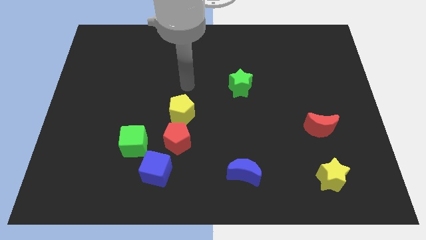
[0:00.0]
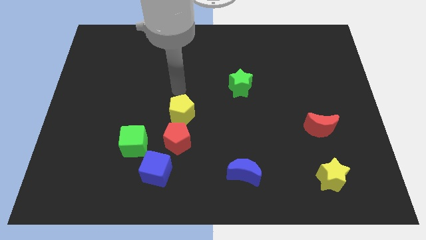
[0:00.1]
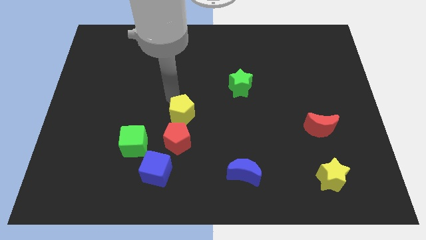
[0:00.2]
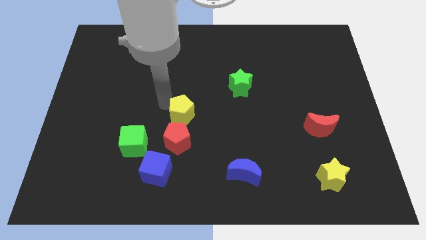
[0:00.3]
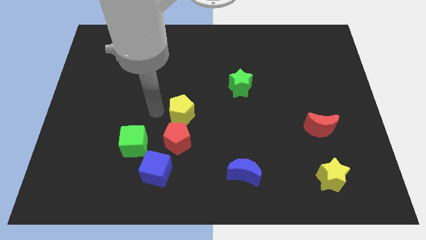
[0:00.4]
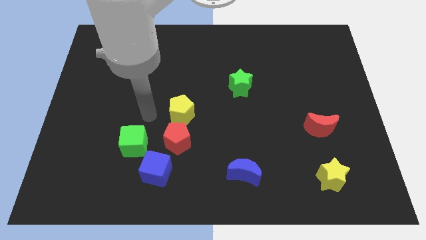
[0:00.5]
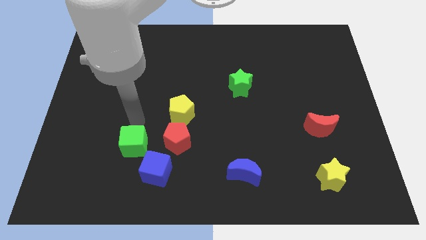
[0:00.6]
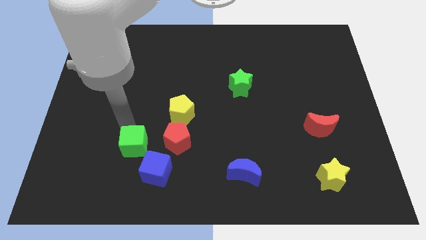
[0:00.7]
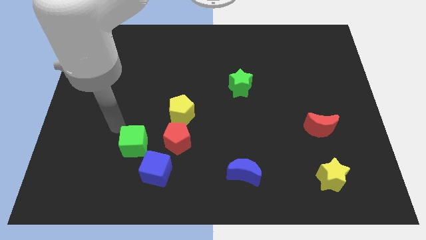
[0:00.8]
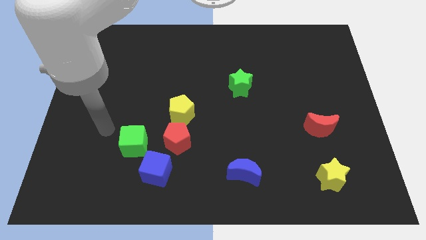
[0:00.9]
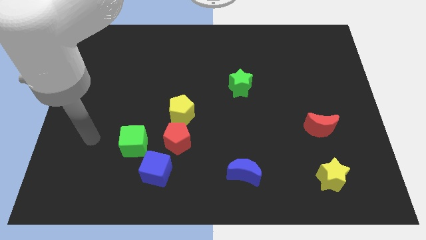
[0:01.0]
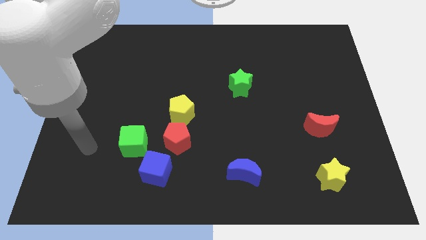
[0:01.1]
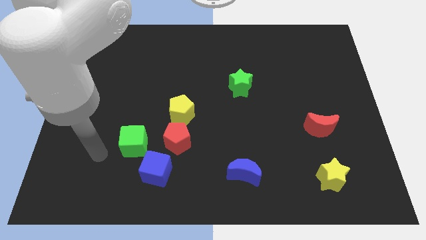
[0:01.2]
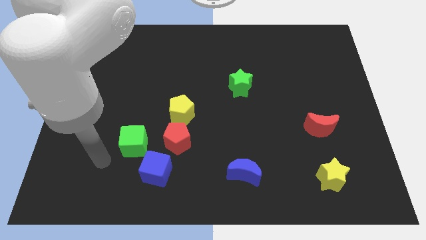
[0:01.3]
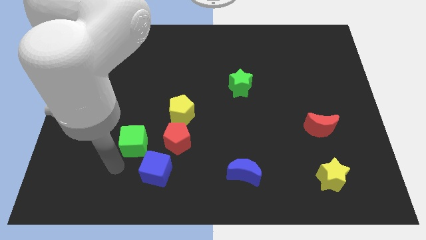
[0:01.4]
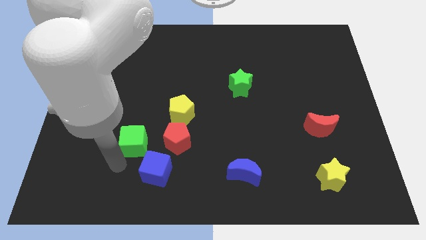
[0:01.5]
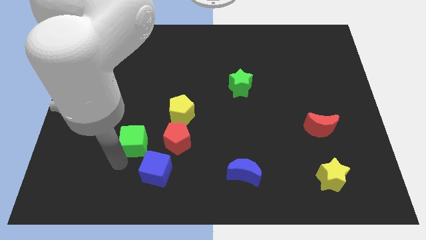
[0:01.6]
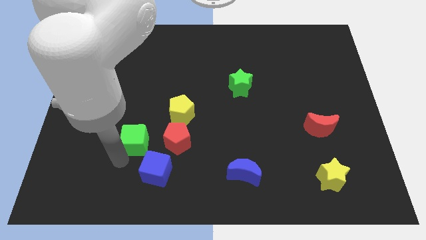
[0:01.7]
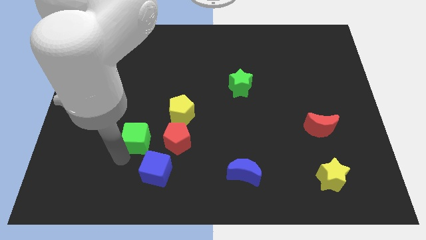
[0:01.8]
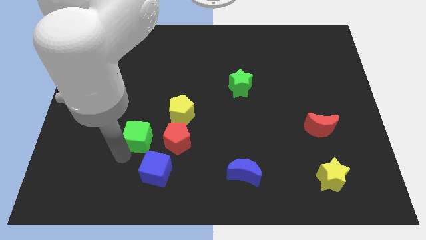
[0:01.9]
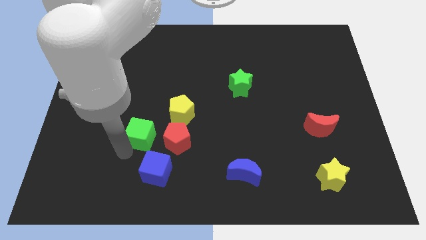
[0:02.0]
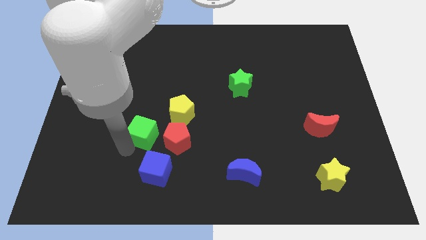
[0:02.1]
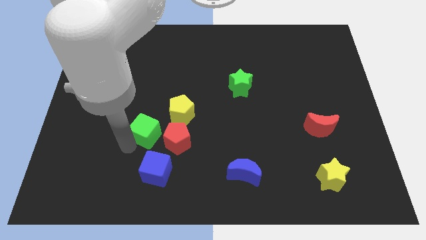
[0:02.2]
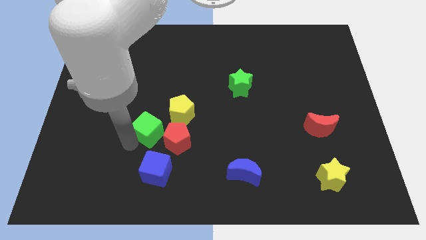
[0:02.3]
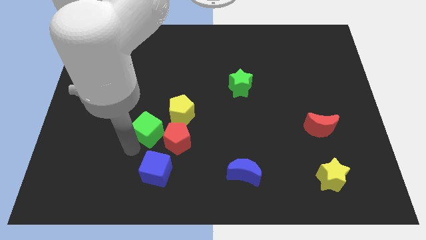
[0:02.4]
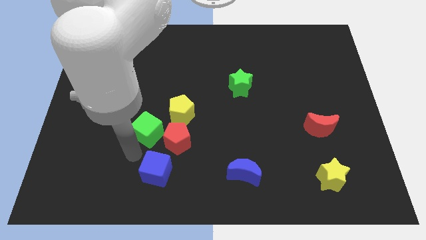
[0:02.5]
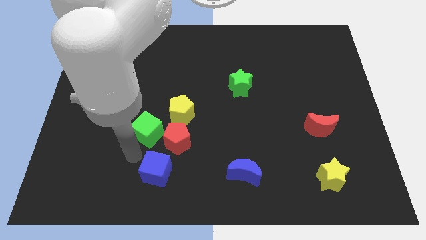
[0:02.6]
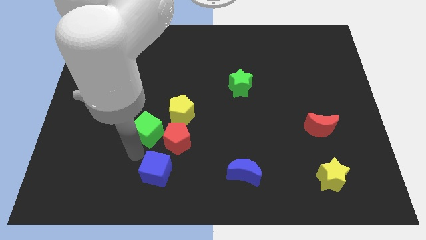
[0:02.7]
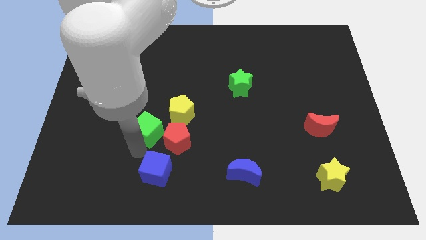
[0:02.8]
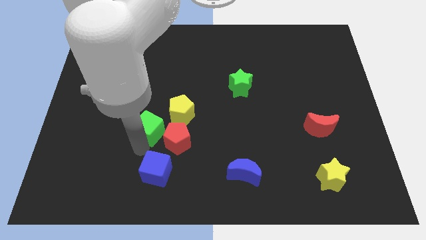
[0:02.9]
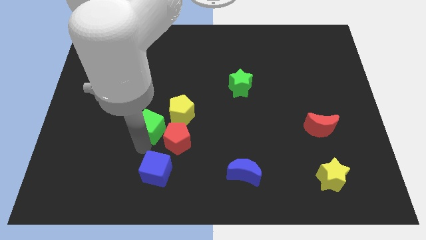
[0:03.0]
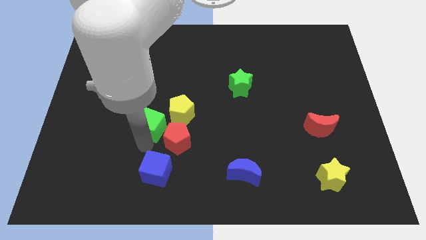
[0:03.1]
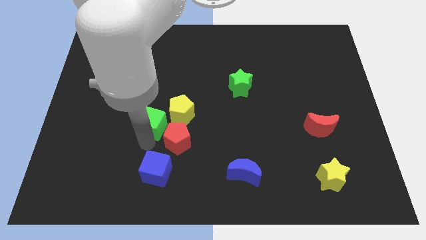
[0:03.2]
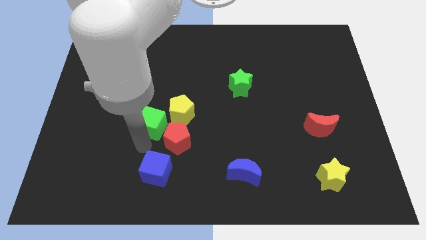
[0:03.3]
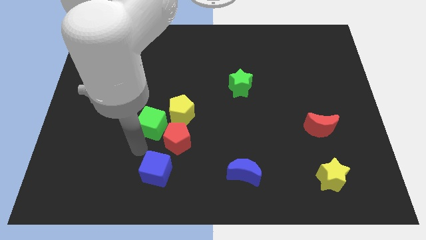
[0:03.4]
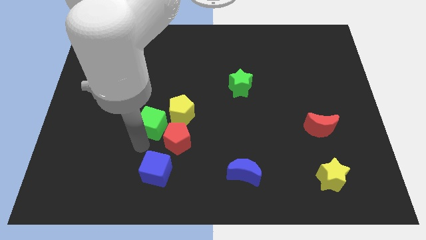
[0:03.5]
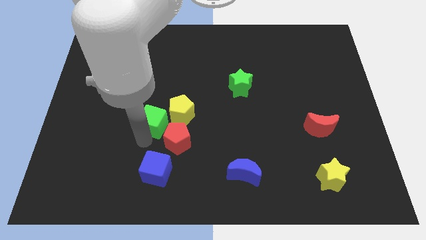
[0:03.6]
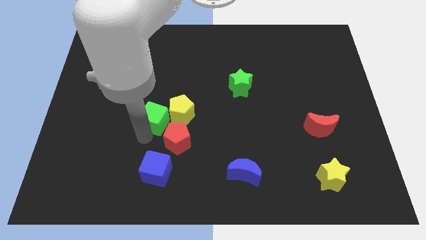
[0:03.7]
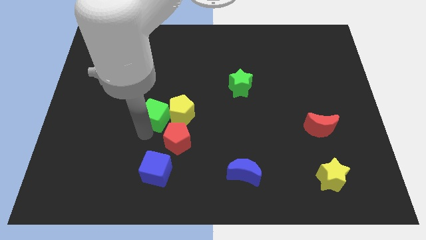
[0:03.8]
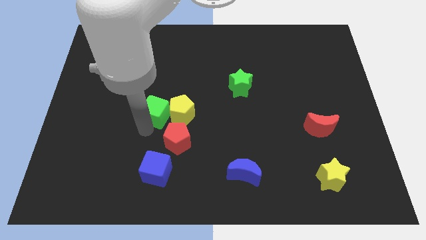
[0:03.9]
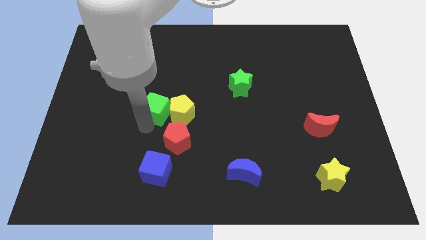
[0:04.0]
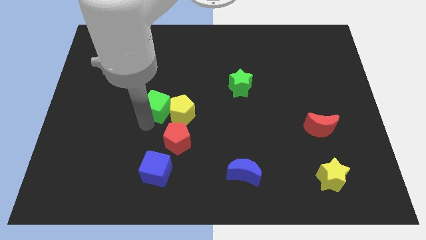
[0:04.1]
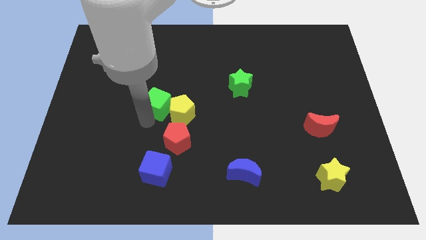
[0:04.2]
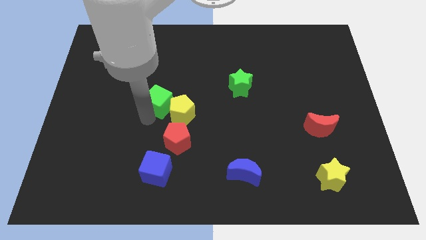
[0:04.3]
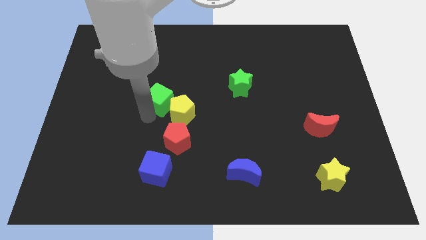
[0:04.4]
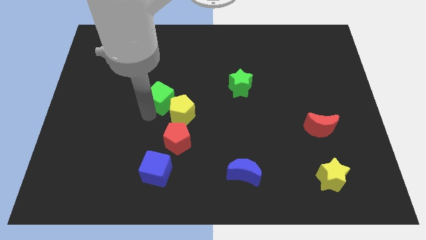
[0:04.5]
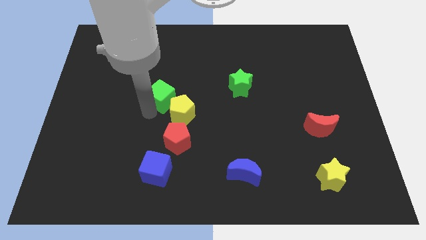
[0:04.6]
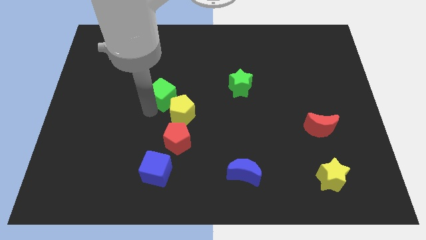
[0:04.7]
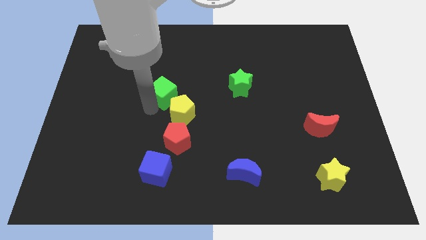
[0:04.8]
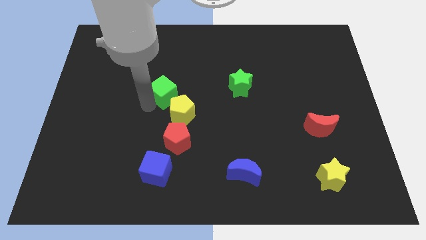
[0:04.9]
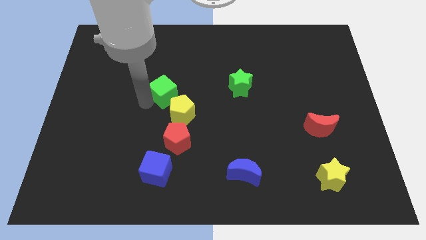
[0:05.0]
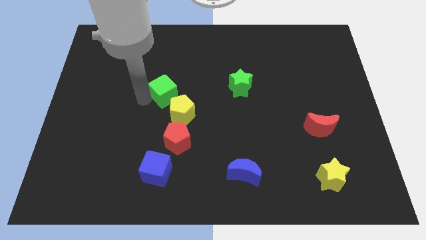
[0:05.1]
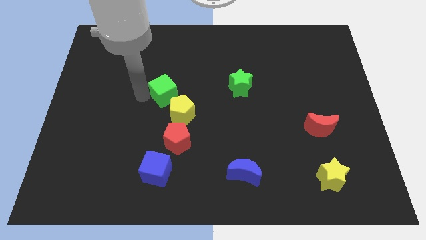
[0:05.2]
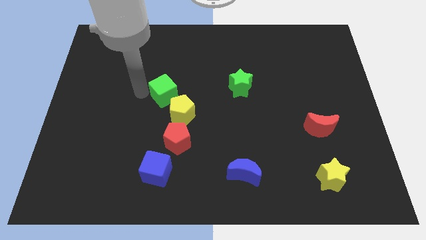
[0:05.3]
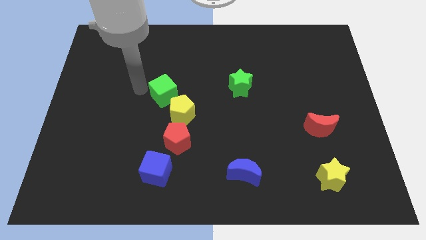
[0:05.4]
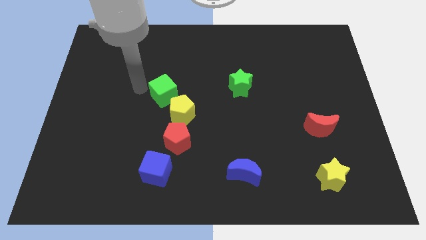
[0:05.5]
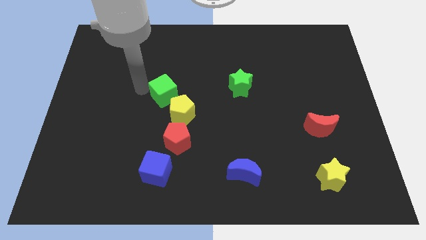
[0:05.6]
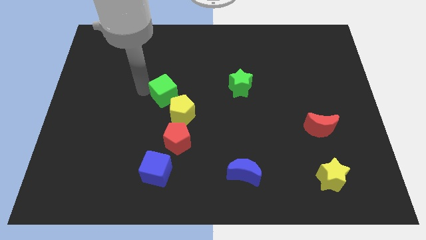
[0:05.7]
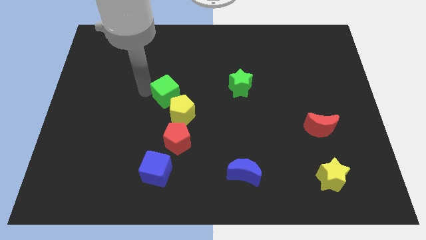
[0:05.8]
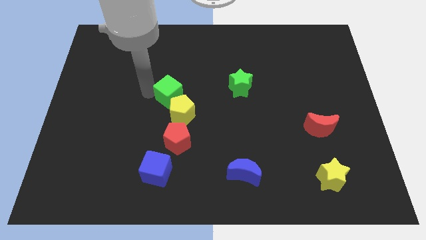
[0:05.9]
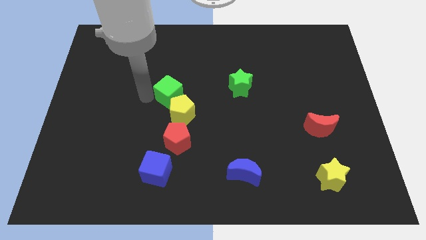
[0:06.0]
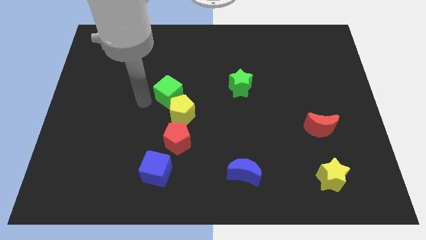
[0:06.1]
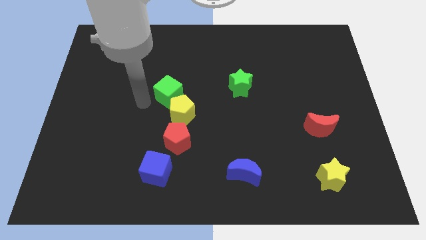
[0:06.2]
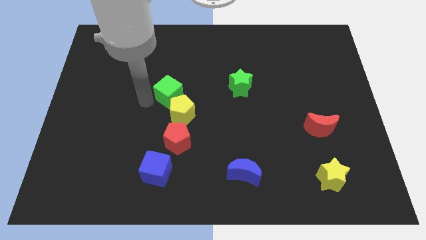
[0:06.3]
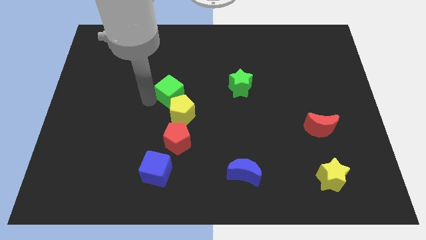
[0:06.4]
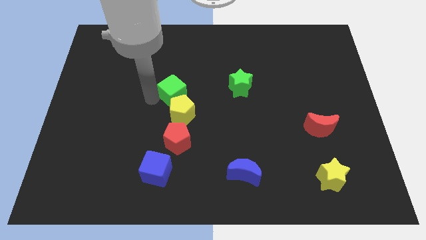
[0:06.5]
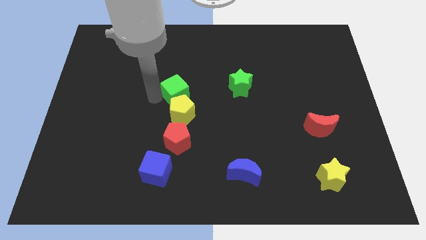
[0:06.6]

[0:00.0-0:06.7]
move the green cube to the left of the green star

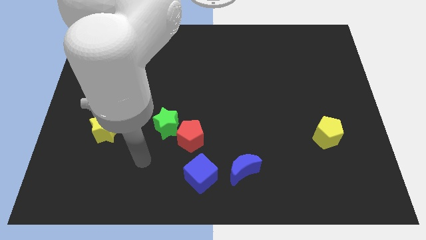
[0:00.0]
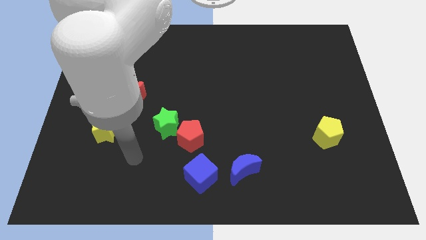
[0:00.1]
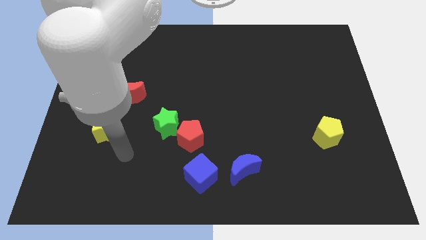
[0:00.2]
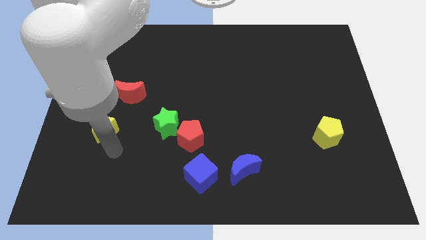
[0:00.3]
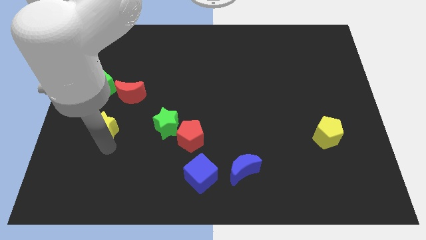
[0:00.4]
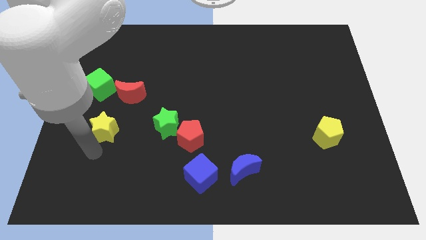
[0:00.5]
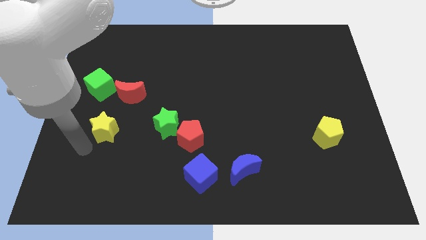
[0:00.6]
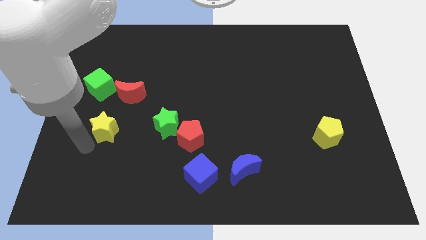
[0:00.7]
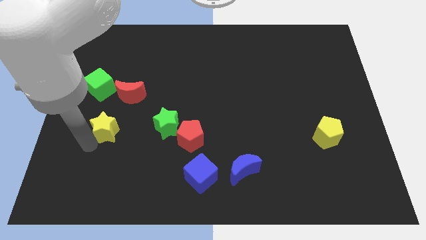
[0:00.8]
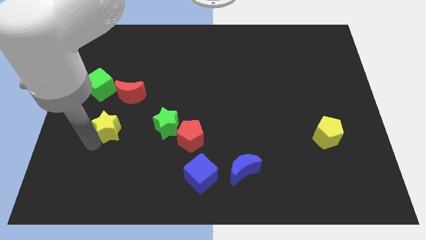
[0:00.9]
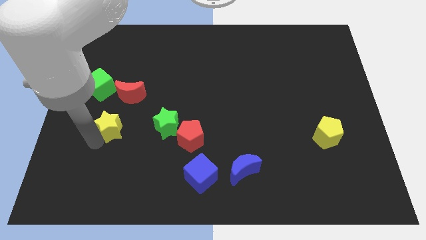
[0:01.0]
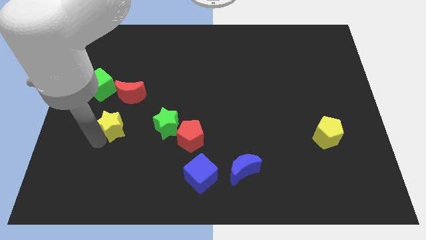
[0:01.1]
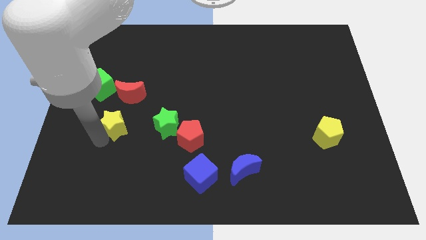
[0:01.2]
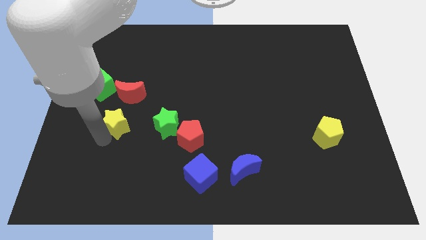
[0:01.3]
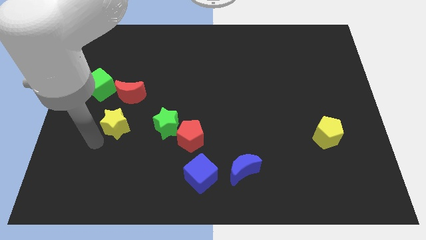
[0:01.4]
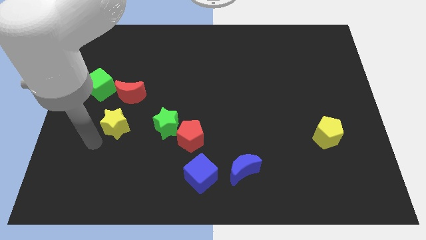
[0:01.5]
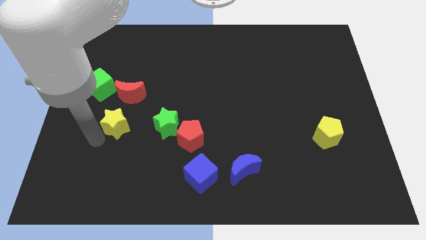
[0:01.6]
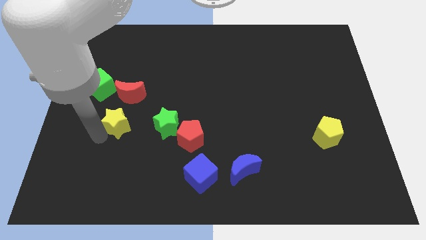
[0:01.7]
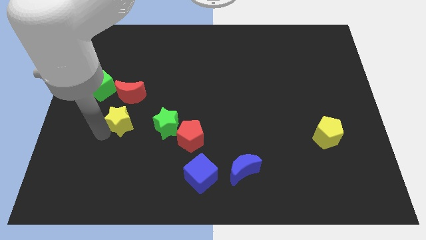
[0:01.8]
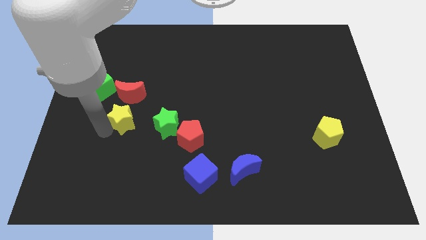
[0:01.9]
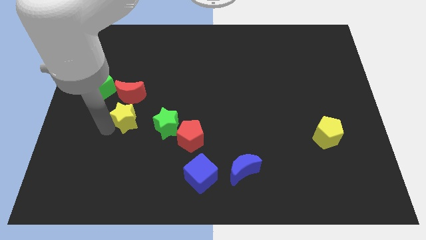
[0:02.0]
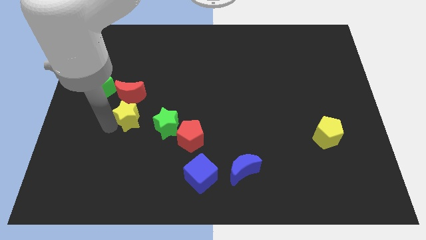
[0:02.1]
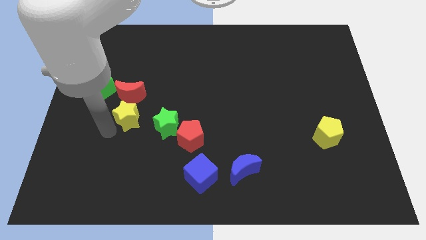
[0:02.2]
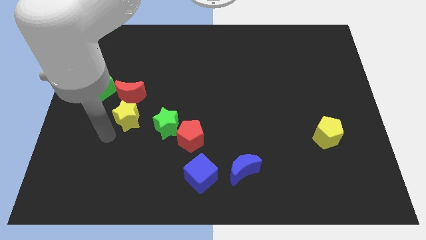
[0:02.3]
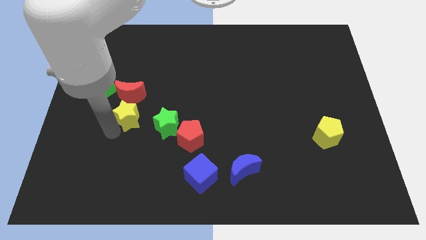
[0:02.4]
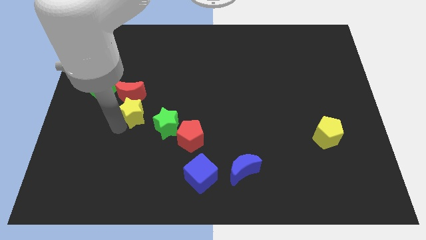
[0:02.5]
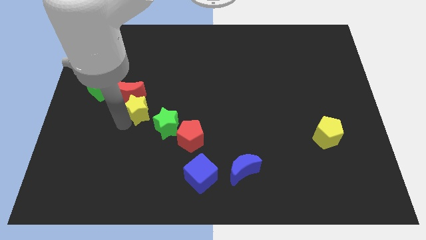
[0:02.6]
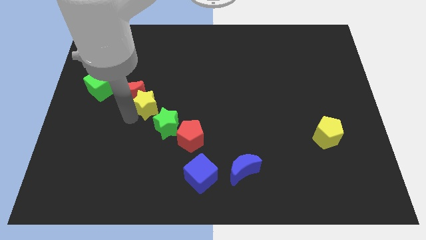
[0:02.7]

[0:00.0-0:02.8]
put the yellow star just right of the red moon
